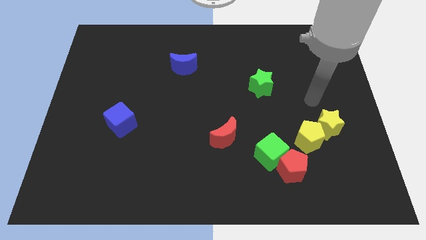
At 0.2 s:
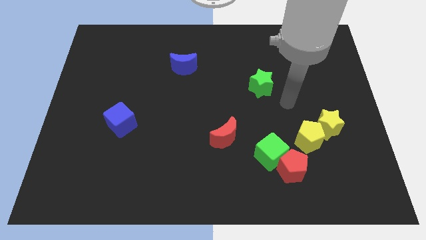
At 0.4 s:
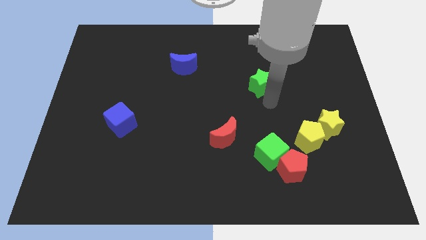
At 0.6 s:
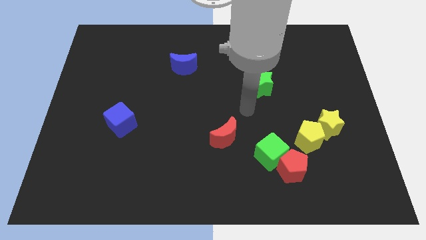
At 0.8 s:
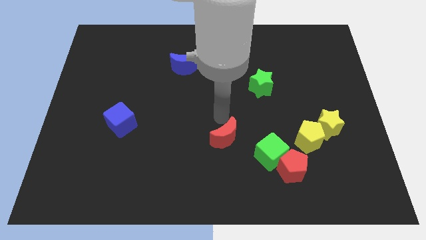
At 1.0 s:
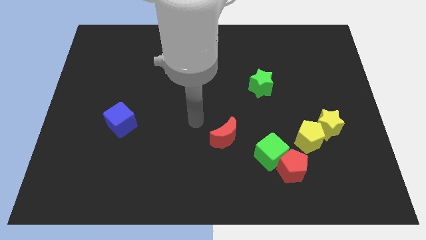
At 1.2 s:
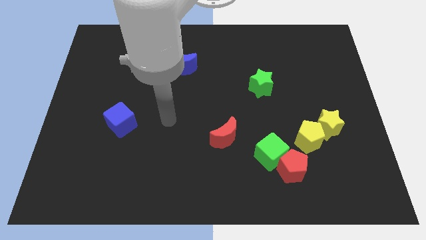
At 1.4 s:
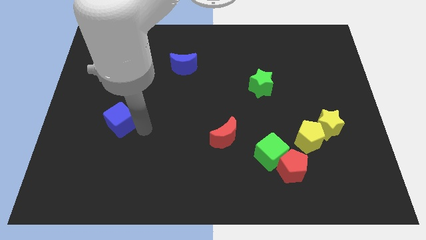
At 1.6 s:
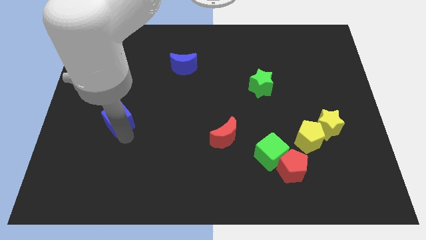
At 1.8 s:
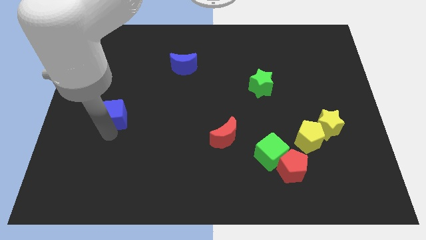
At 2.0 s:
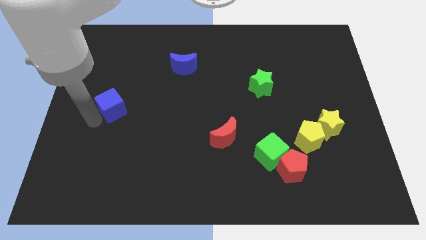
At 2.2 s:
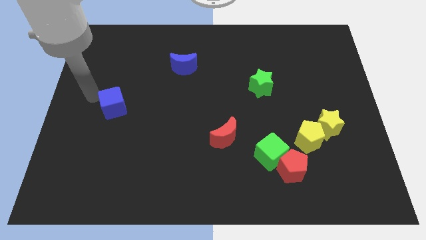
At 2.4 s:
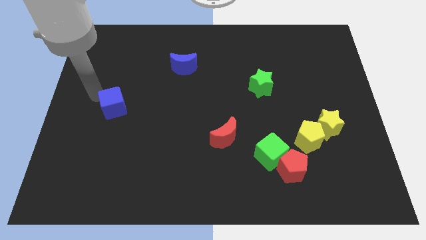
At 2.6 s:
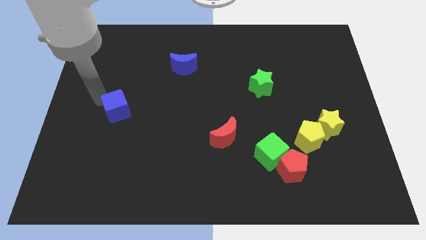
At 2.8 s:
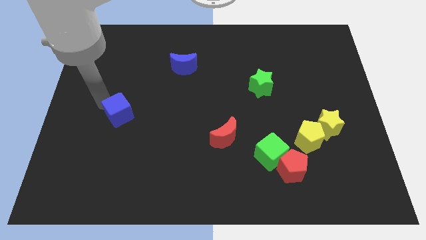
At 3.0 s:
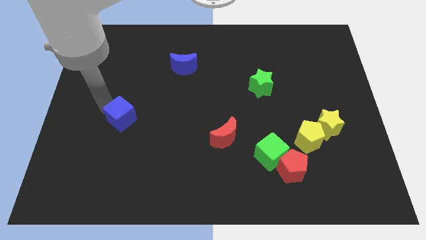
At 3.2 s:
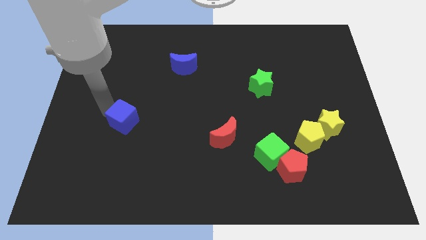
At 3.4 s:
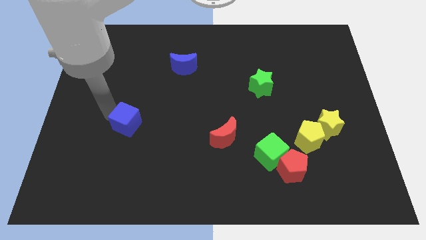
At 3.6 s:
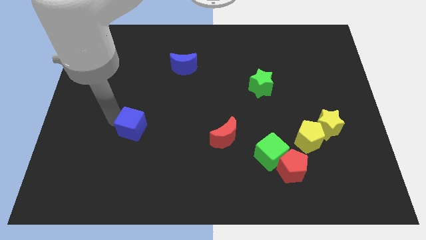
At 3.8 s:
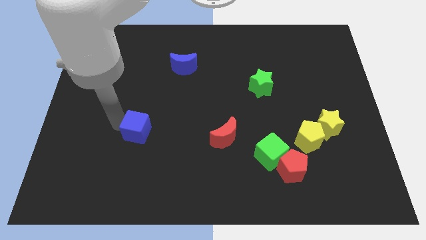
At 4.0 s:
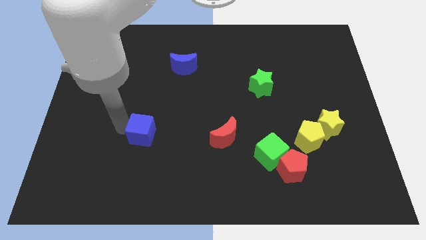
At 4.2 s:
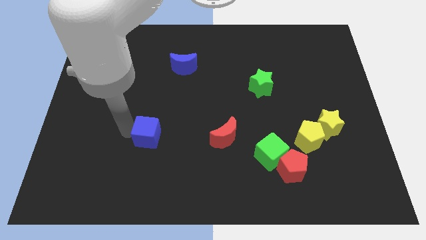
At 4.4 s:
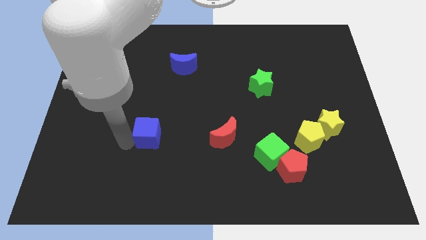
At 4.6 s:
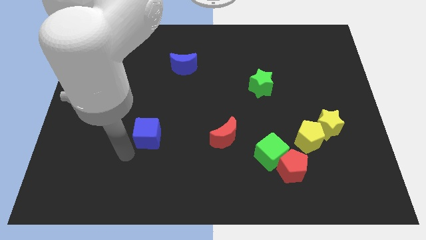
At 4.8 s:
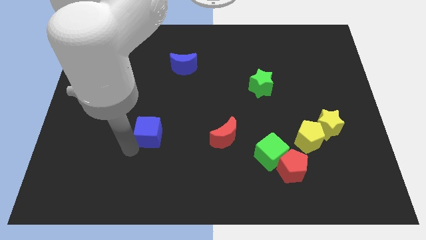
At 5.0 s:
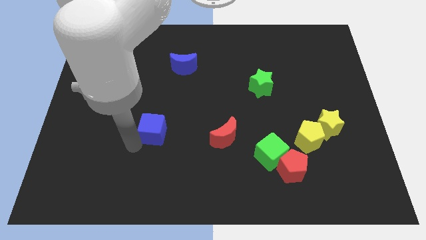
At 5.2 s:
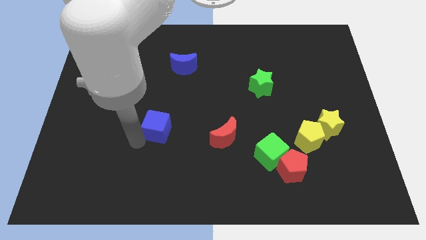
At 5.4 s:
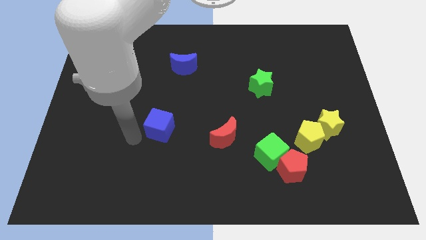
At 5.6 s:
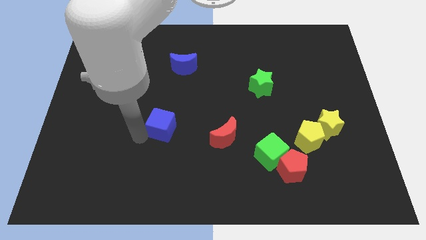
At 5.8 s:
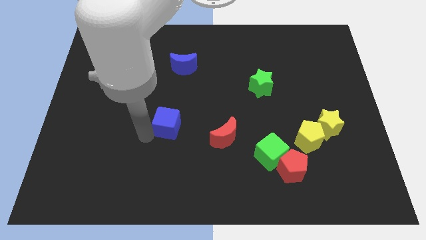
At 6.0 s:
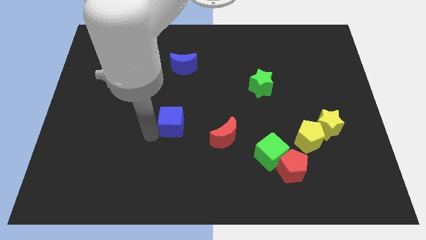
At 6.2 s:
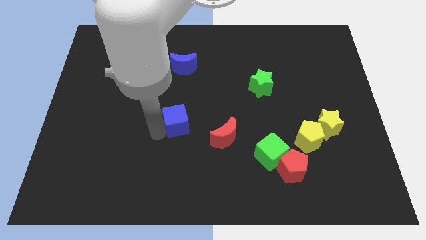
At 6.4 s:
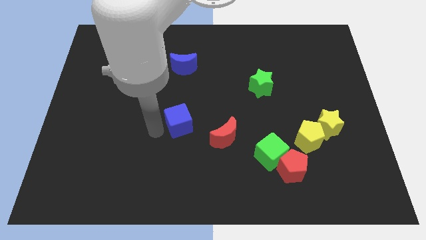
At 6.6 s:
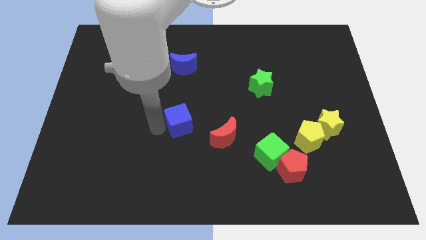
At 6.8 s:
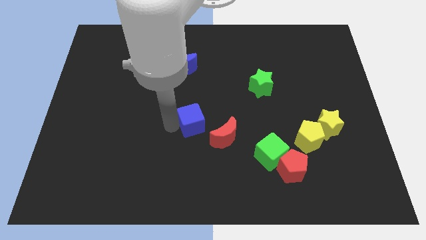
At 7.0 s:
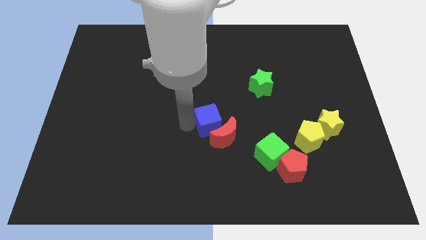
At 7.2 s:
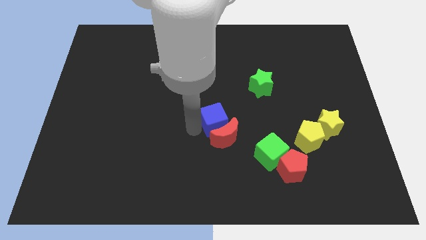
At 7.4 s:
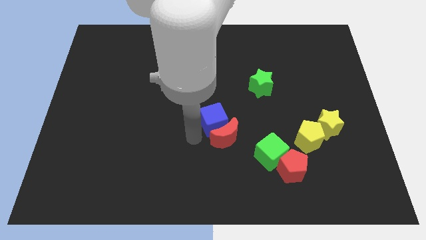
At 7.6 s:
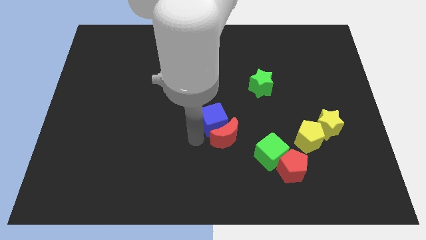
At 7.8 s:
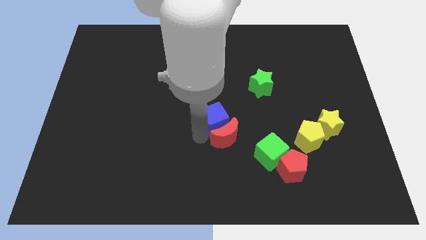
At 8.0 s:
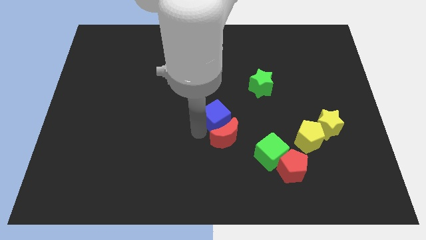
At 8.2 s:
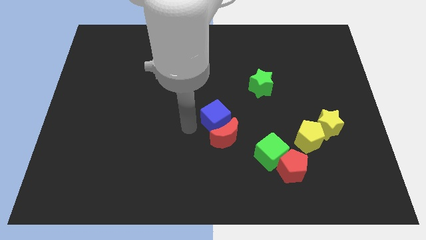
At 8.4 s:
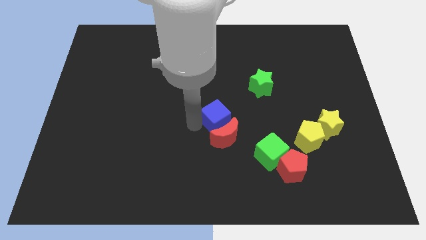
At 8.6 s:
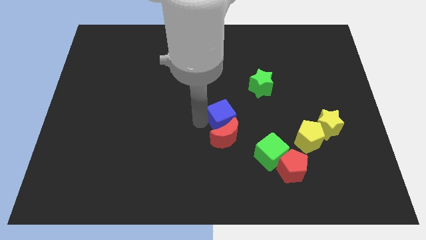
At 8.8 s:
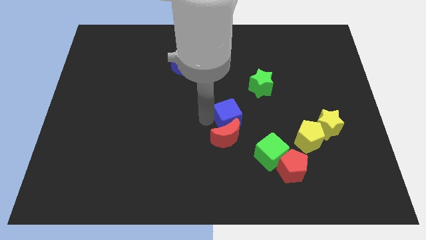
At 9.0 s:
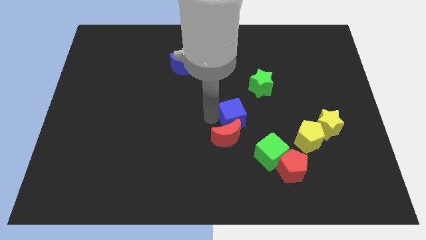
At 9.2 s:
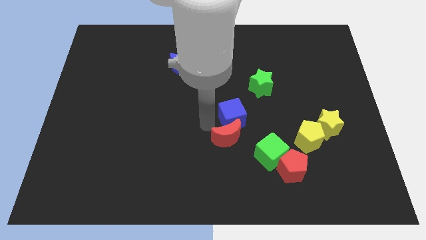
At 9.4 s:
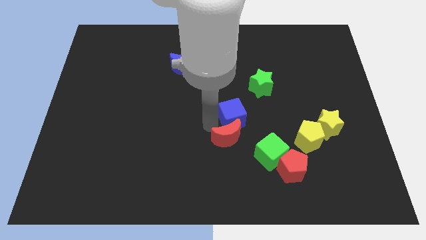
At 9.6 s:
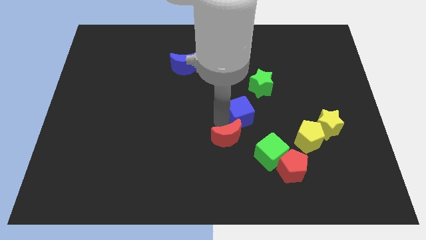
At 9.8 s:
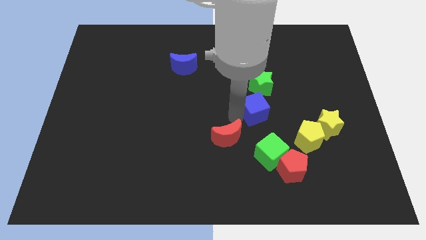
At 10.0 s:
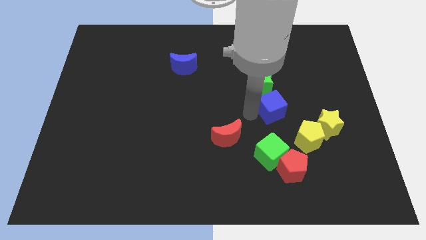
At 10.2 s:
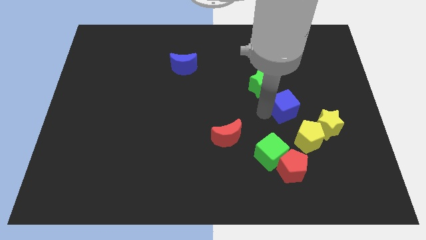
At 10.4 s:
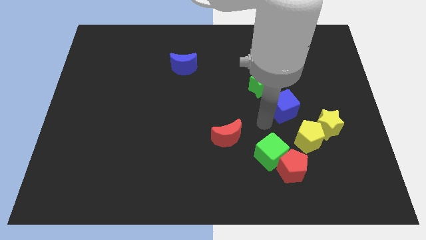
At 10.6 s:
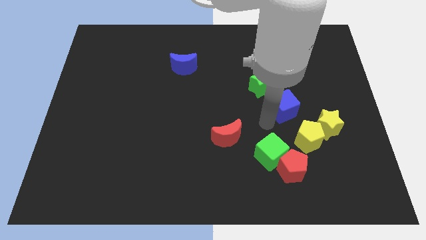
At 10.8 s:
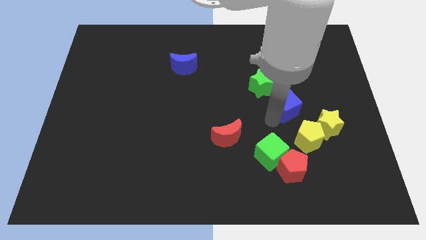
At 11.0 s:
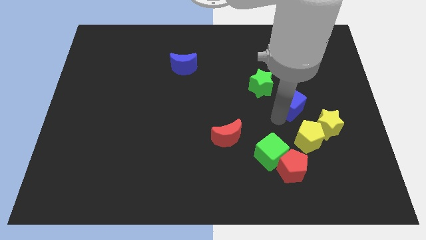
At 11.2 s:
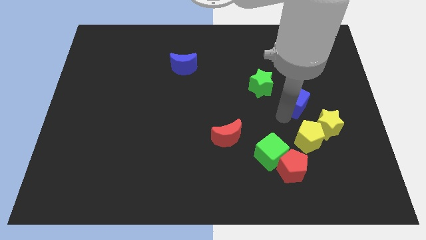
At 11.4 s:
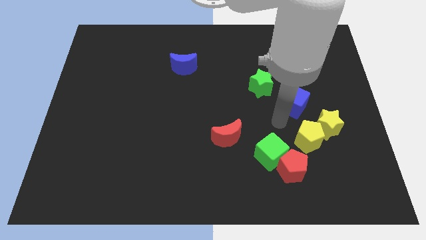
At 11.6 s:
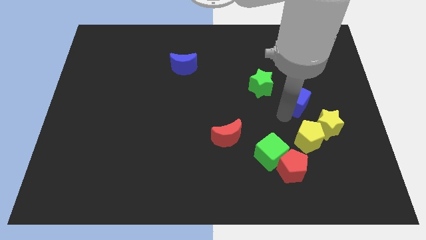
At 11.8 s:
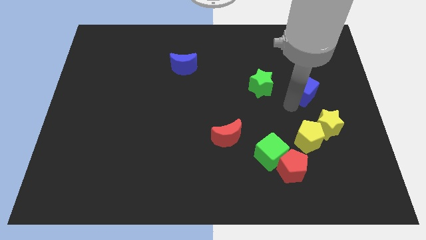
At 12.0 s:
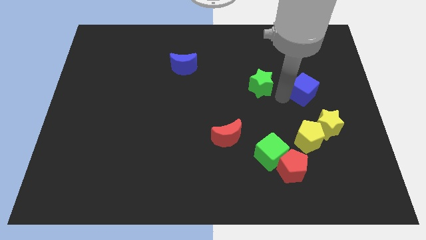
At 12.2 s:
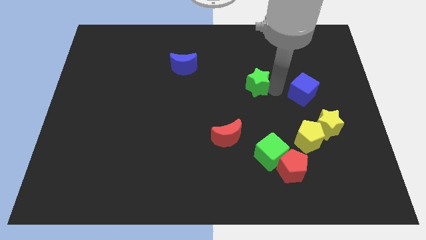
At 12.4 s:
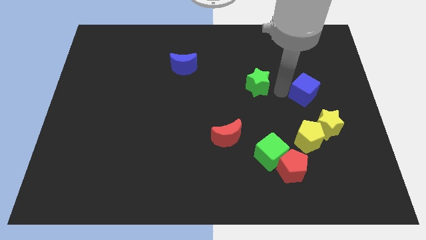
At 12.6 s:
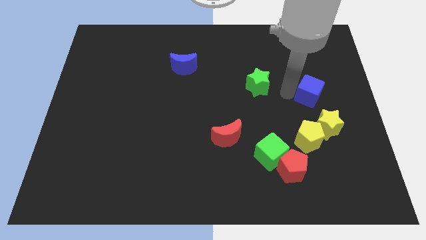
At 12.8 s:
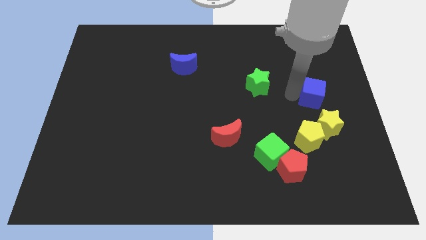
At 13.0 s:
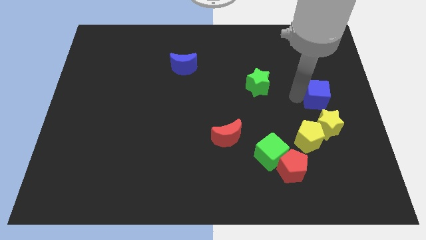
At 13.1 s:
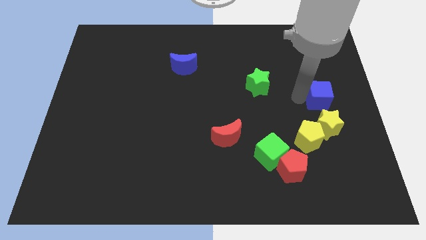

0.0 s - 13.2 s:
move the blue cube to the right side of the board
